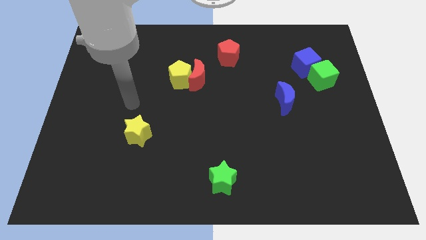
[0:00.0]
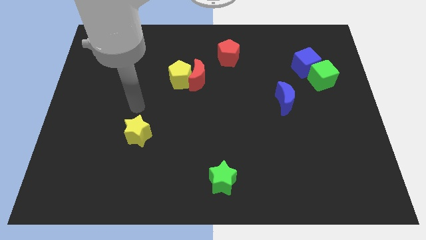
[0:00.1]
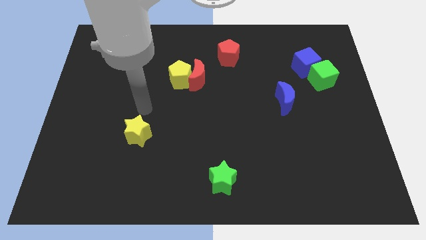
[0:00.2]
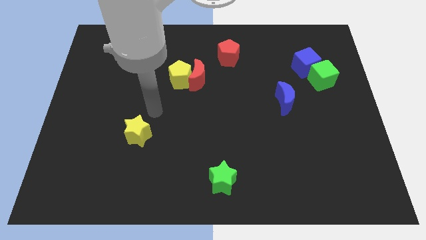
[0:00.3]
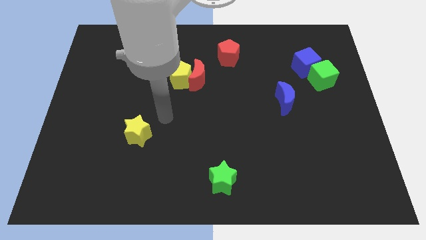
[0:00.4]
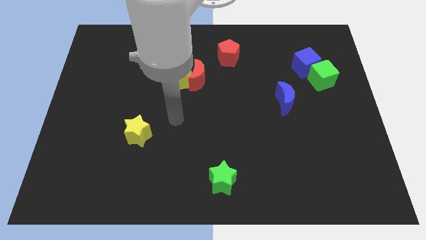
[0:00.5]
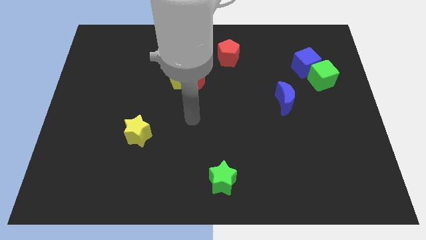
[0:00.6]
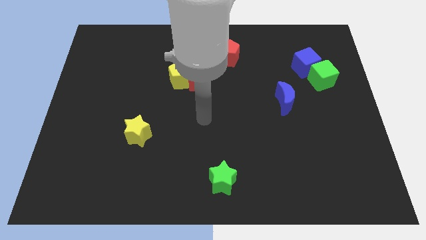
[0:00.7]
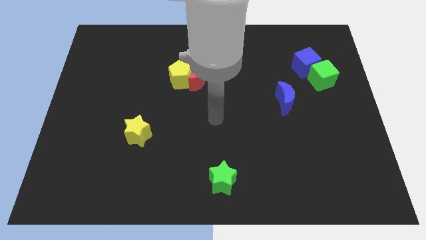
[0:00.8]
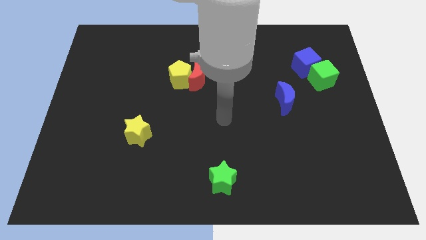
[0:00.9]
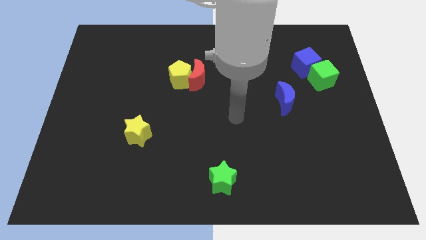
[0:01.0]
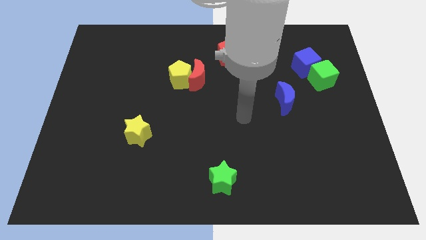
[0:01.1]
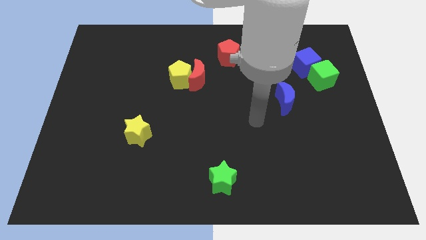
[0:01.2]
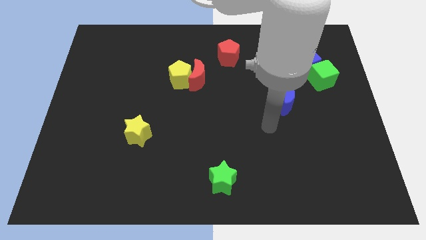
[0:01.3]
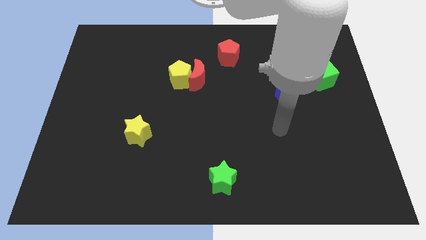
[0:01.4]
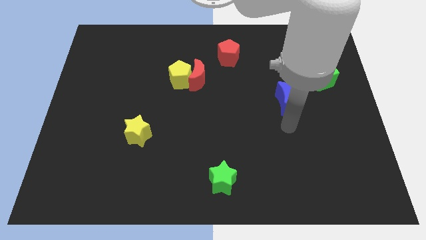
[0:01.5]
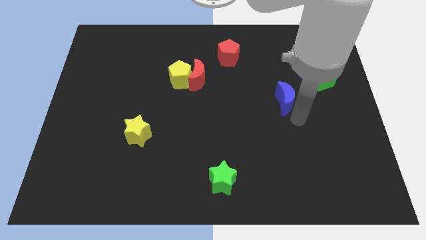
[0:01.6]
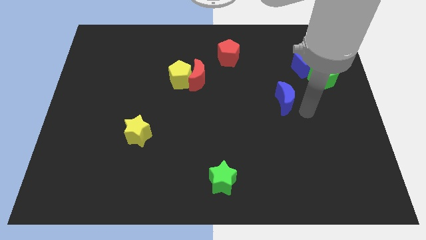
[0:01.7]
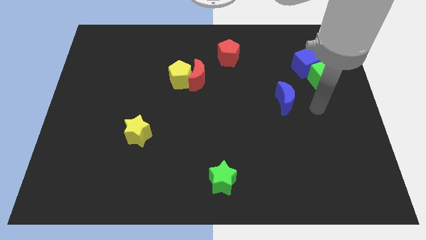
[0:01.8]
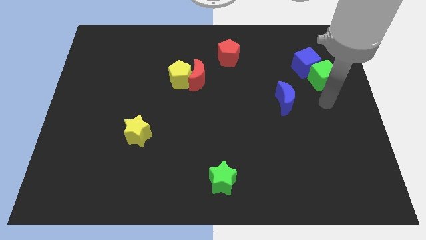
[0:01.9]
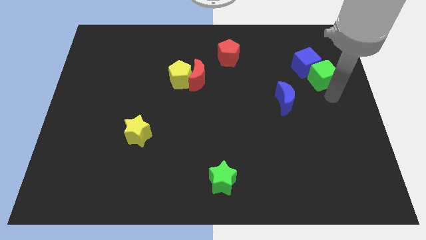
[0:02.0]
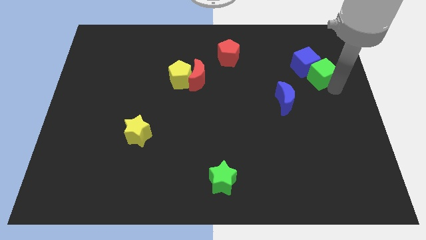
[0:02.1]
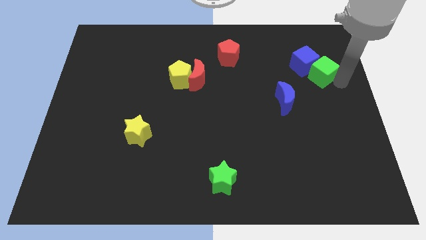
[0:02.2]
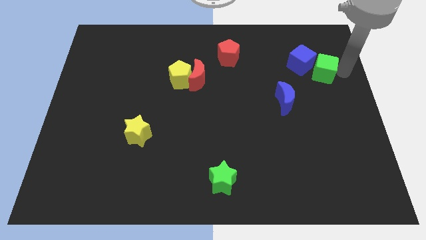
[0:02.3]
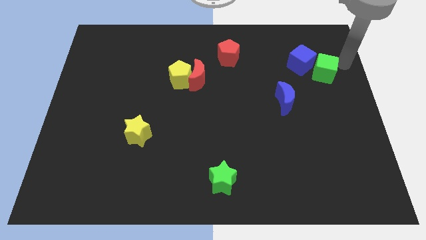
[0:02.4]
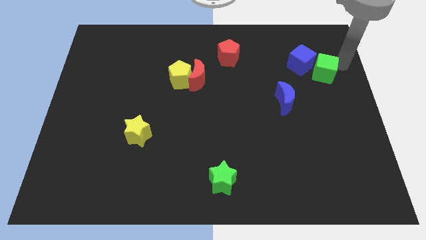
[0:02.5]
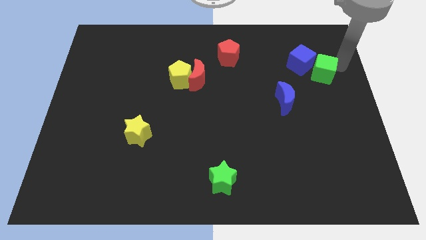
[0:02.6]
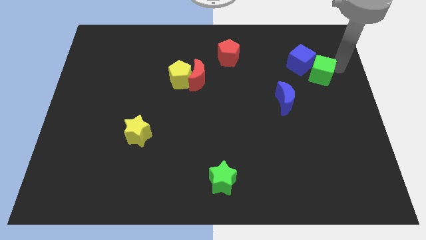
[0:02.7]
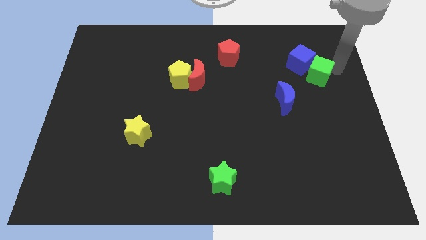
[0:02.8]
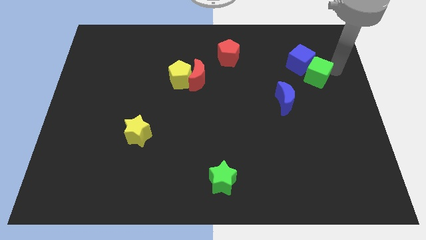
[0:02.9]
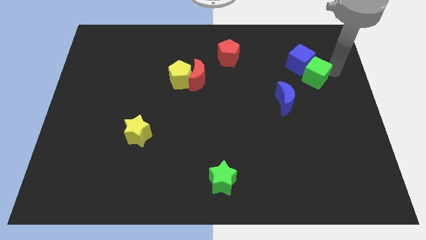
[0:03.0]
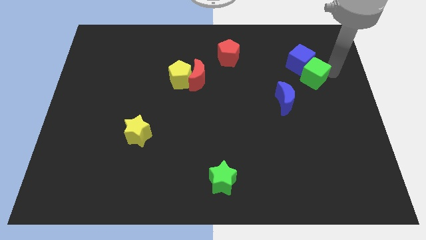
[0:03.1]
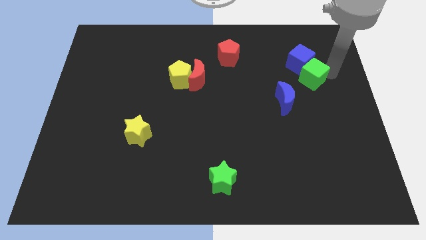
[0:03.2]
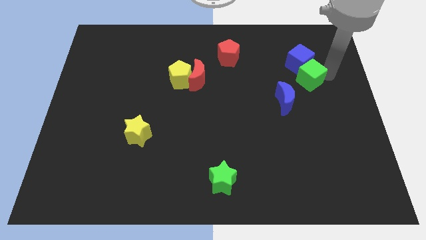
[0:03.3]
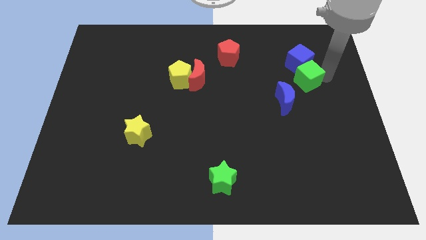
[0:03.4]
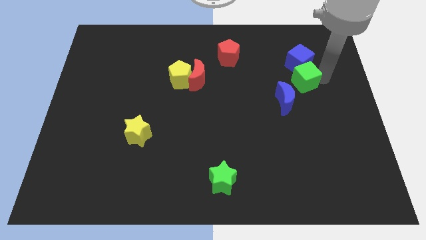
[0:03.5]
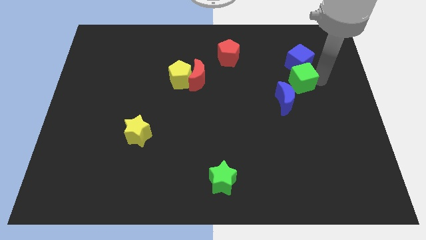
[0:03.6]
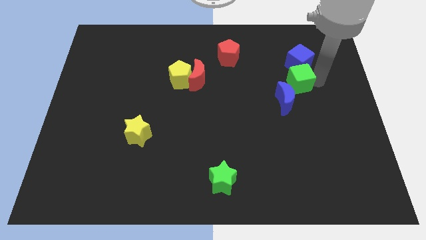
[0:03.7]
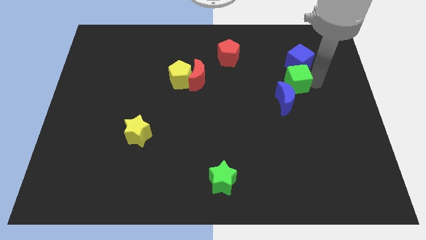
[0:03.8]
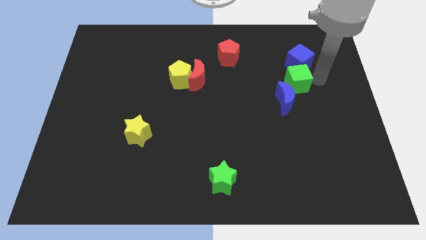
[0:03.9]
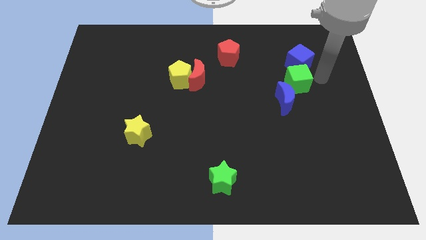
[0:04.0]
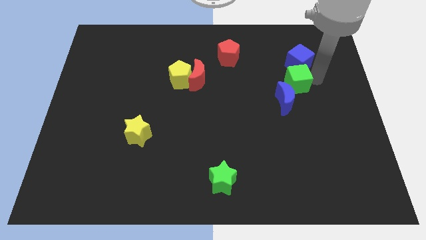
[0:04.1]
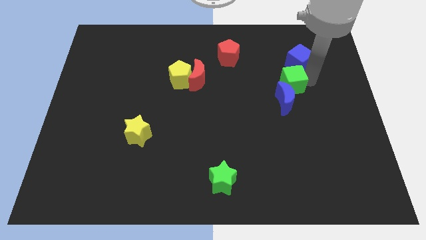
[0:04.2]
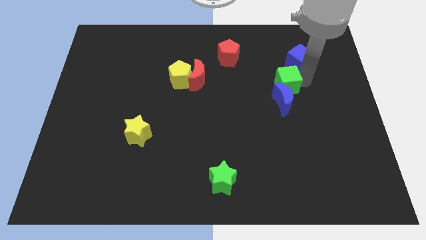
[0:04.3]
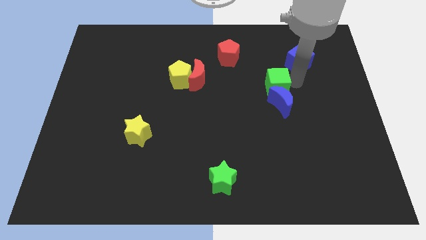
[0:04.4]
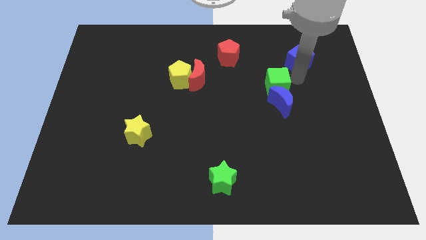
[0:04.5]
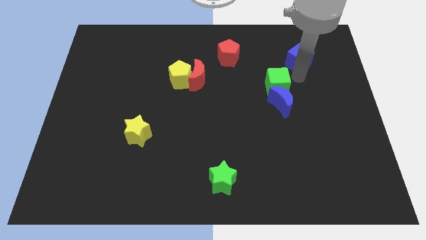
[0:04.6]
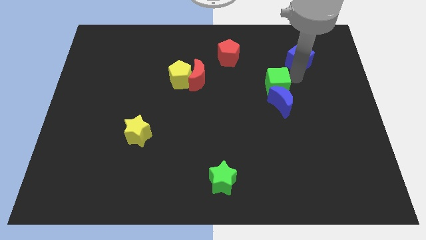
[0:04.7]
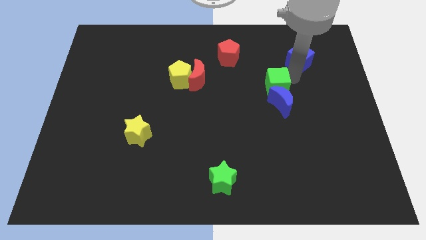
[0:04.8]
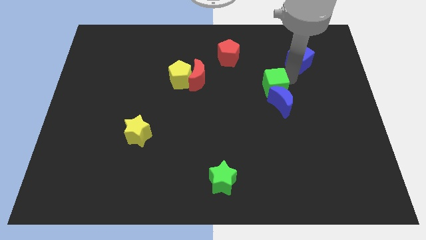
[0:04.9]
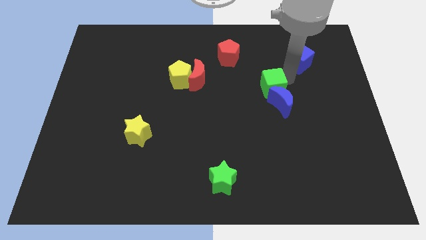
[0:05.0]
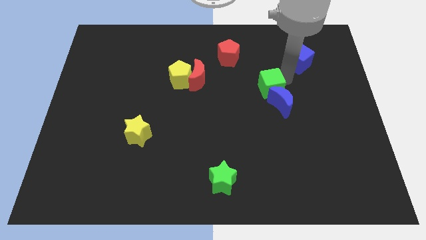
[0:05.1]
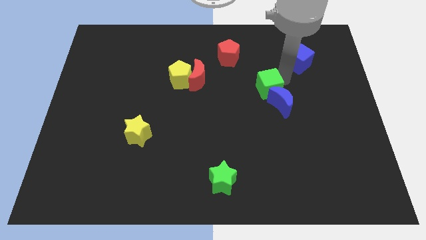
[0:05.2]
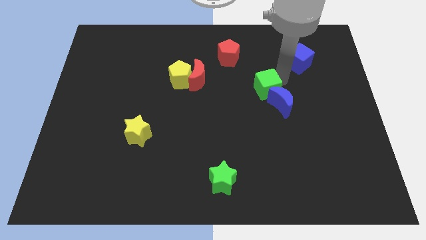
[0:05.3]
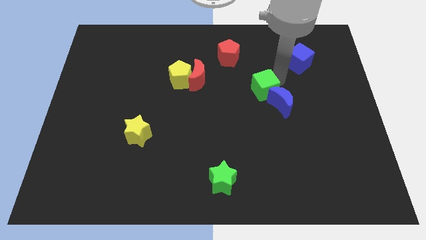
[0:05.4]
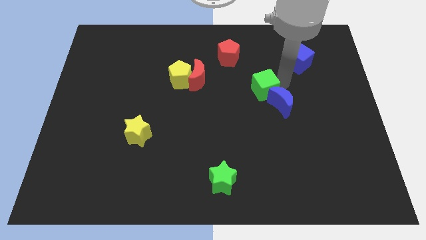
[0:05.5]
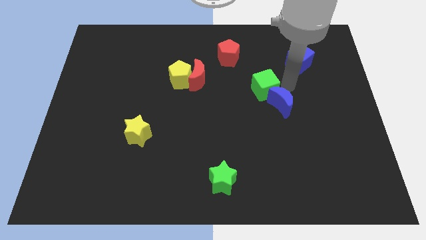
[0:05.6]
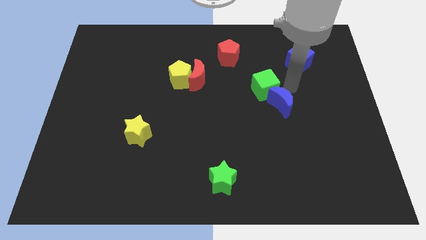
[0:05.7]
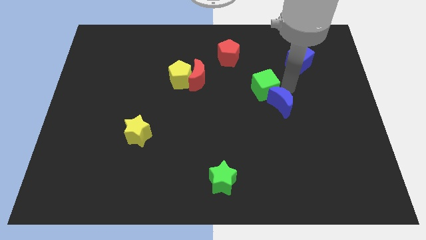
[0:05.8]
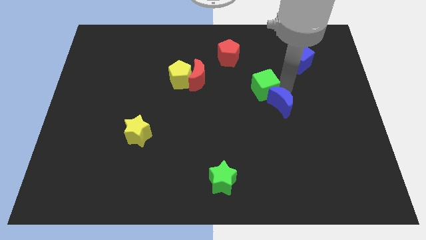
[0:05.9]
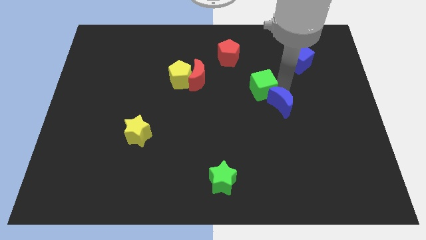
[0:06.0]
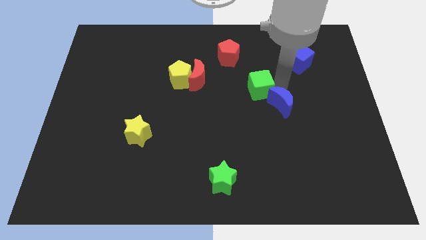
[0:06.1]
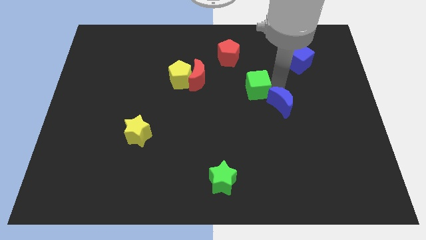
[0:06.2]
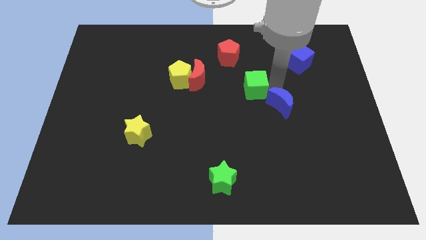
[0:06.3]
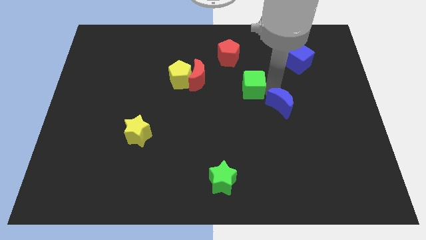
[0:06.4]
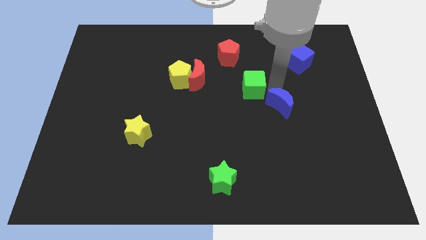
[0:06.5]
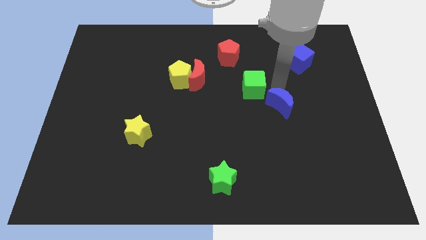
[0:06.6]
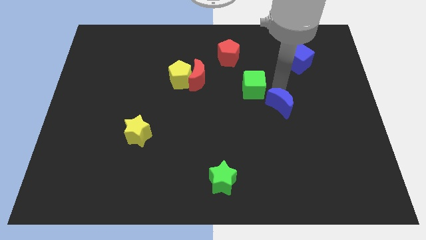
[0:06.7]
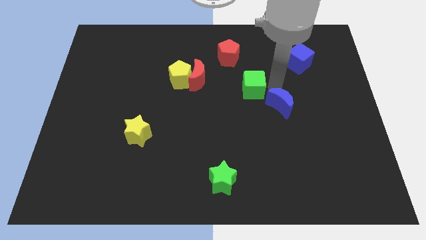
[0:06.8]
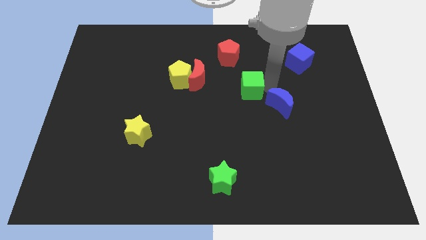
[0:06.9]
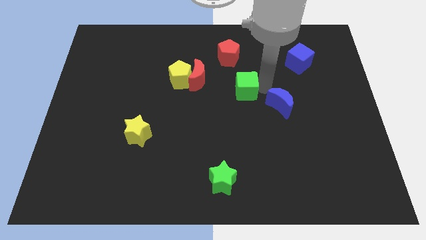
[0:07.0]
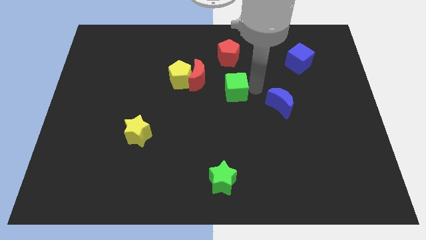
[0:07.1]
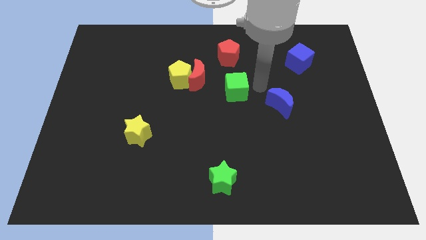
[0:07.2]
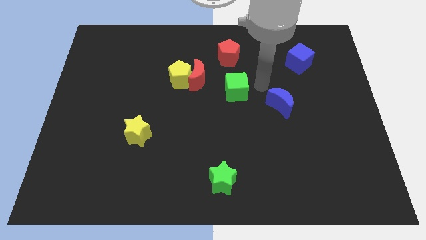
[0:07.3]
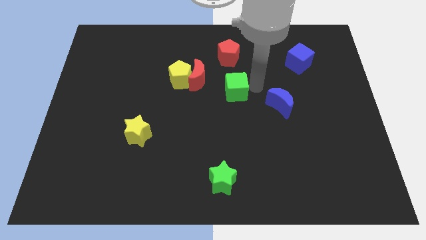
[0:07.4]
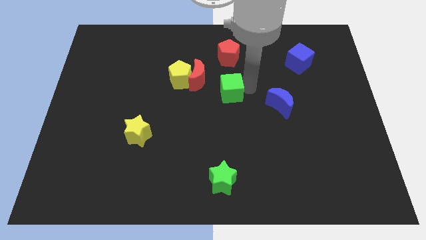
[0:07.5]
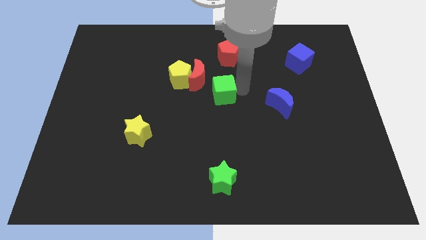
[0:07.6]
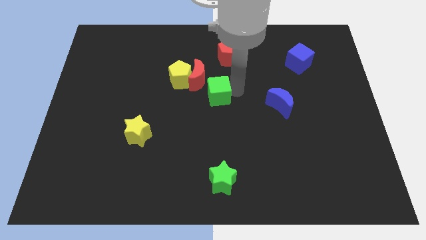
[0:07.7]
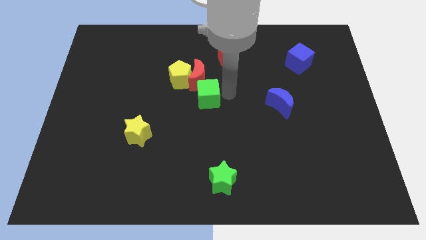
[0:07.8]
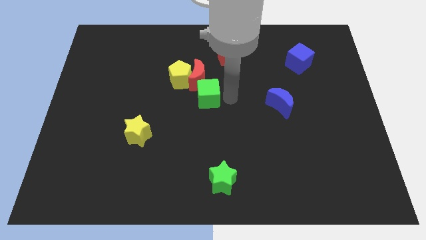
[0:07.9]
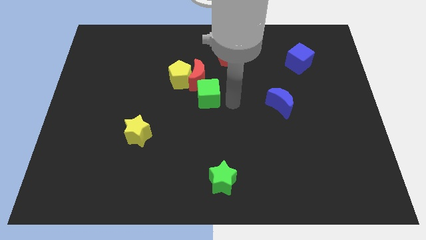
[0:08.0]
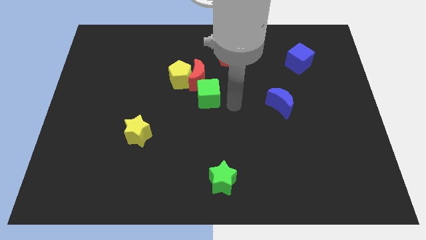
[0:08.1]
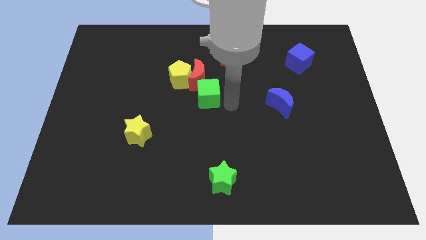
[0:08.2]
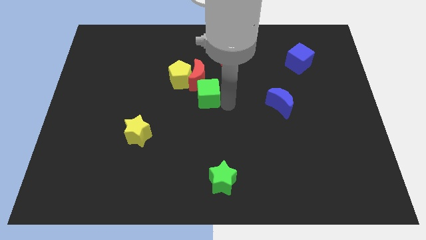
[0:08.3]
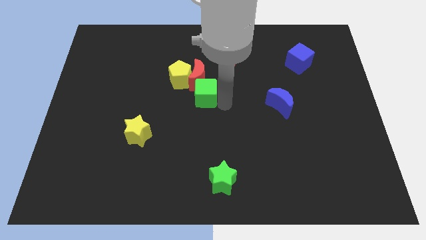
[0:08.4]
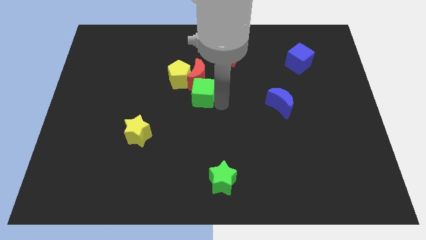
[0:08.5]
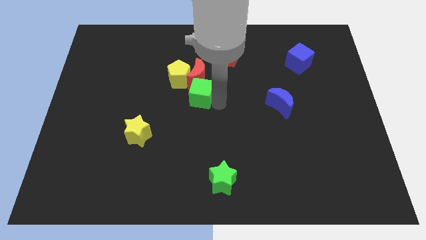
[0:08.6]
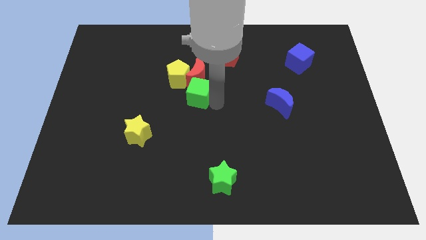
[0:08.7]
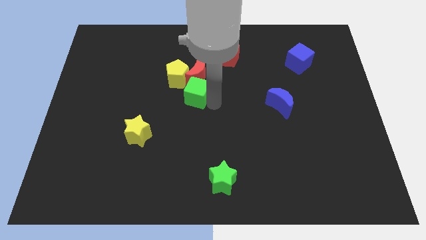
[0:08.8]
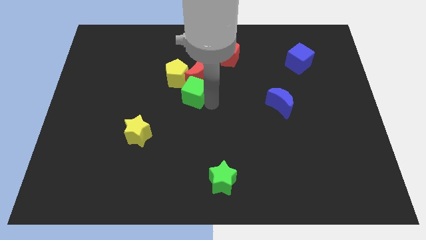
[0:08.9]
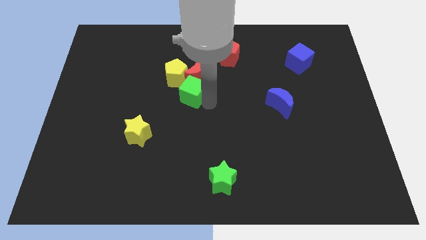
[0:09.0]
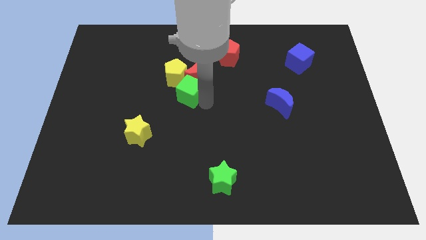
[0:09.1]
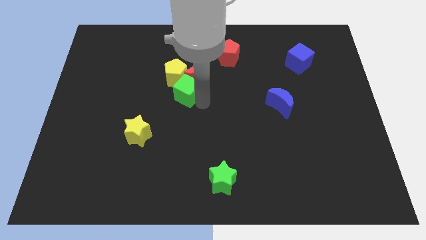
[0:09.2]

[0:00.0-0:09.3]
push the green cube towards the yellow pentagon
